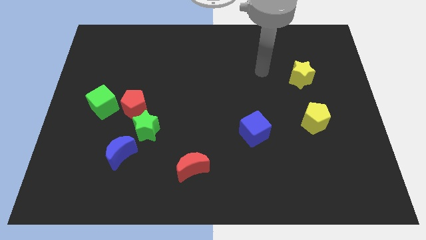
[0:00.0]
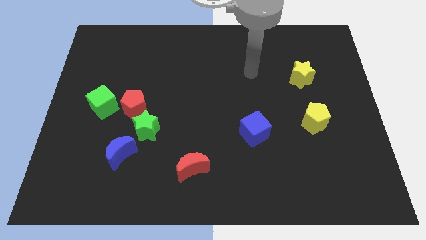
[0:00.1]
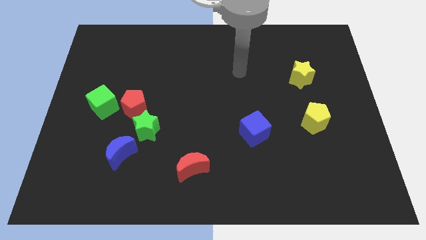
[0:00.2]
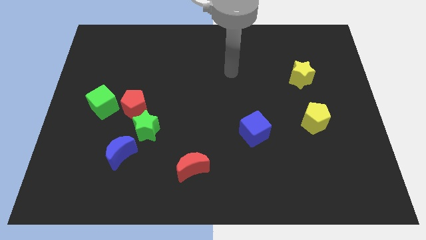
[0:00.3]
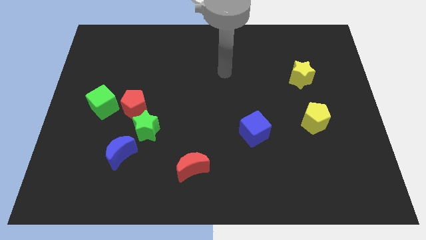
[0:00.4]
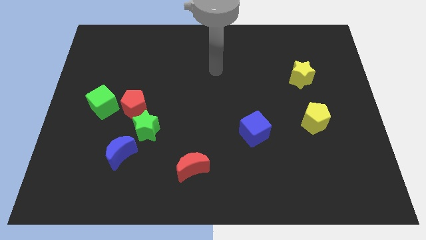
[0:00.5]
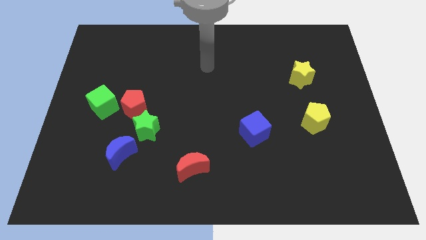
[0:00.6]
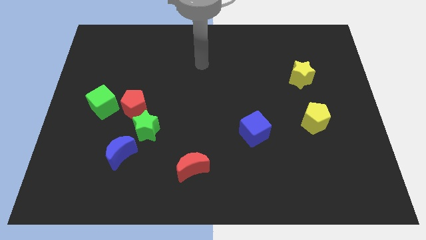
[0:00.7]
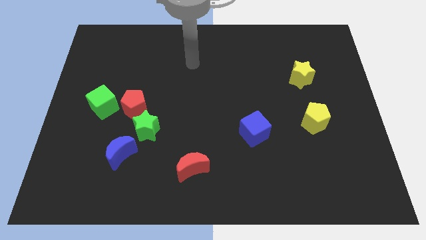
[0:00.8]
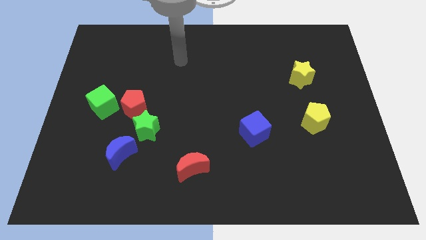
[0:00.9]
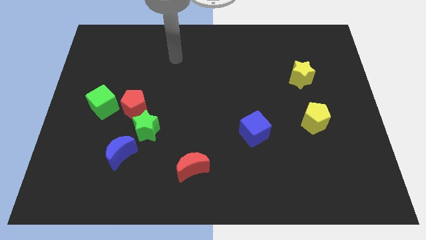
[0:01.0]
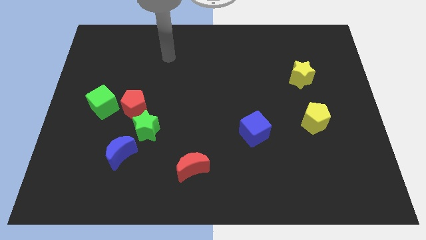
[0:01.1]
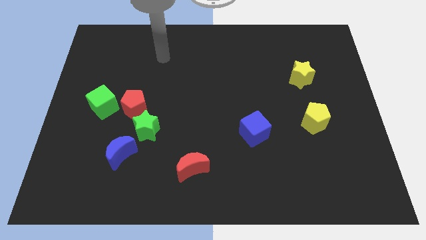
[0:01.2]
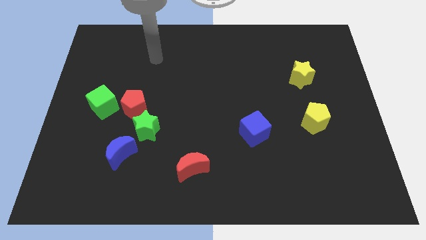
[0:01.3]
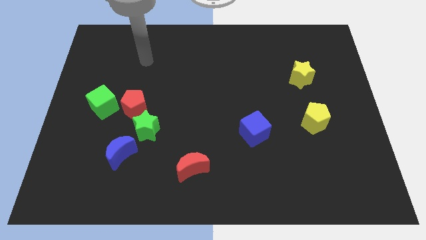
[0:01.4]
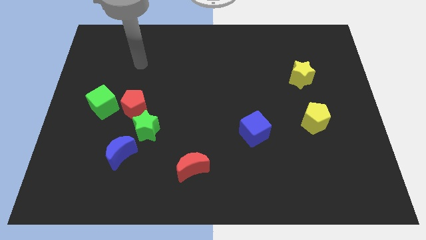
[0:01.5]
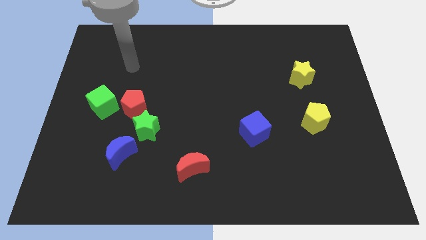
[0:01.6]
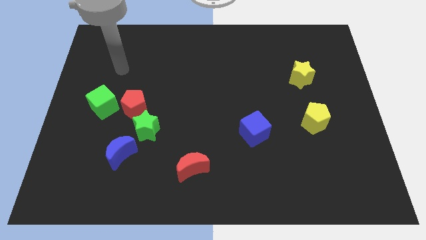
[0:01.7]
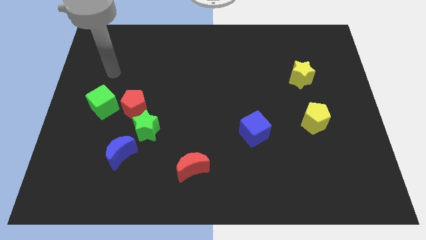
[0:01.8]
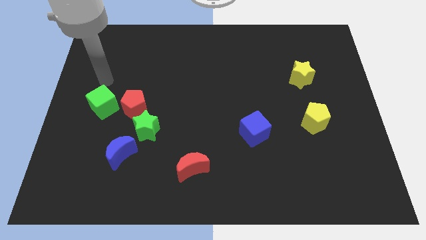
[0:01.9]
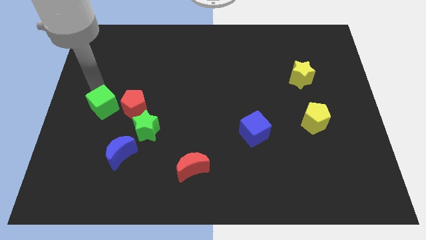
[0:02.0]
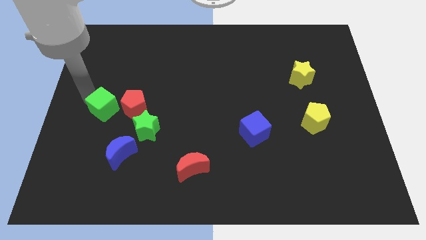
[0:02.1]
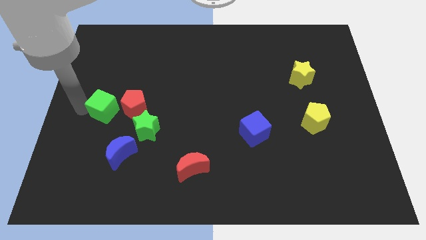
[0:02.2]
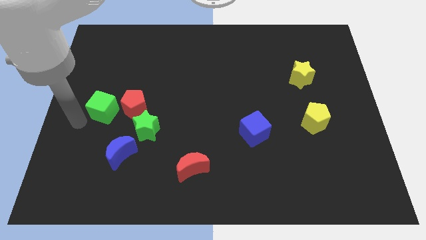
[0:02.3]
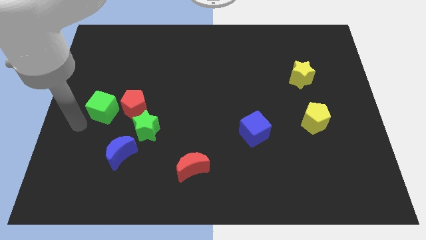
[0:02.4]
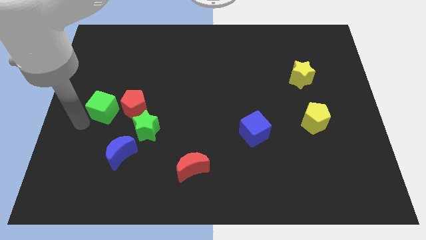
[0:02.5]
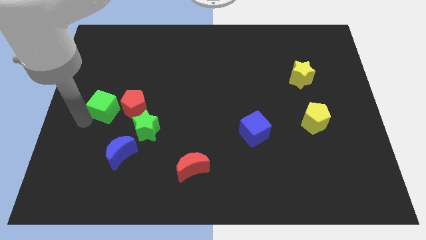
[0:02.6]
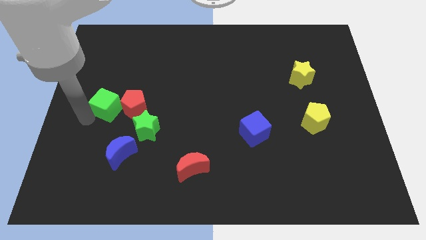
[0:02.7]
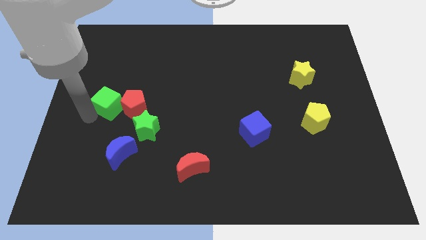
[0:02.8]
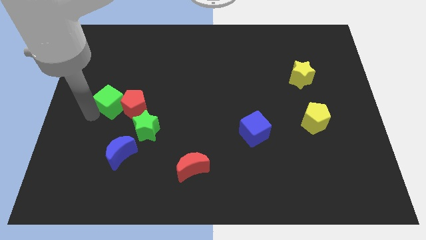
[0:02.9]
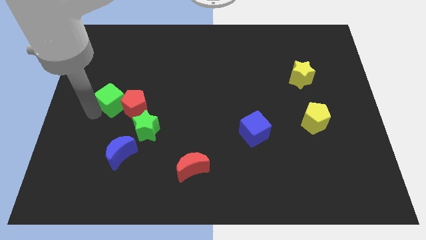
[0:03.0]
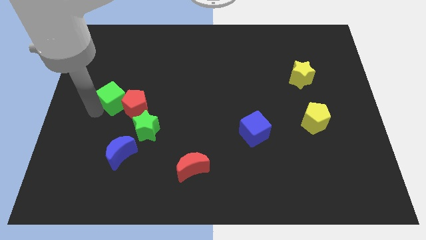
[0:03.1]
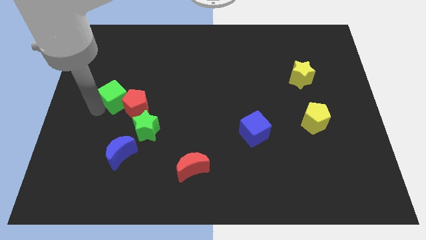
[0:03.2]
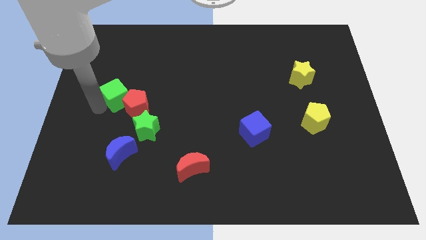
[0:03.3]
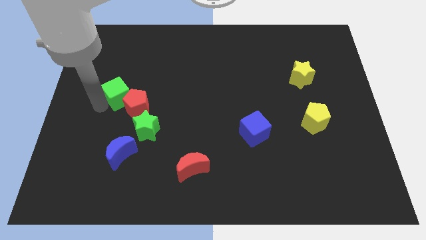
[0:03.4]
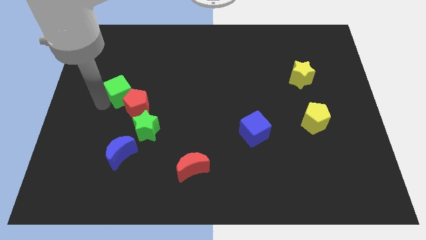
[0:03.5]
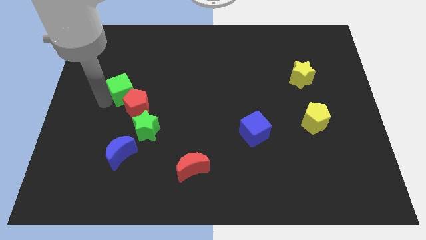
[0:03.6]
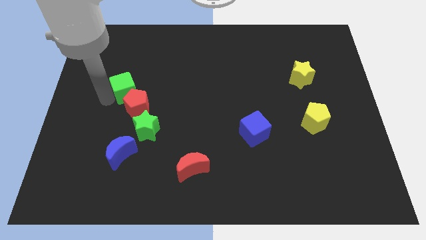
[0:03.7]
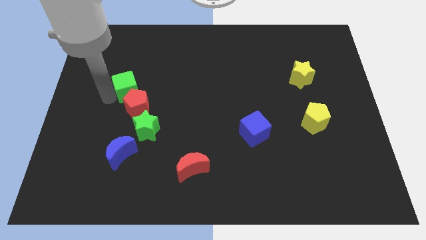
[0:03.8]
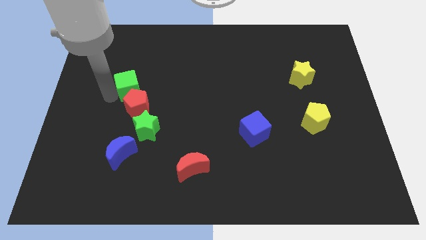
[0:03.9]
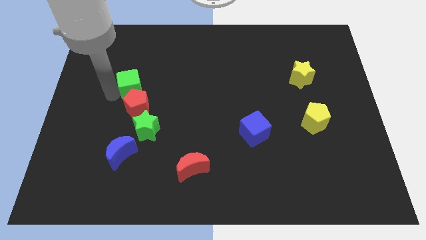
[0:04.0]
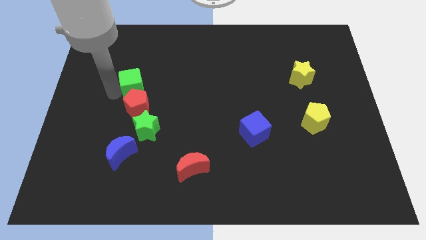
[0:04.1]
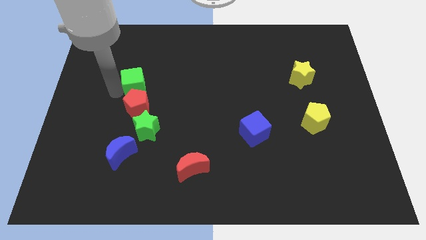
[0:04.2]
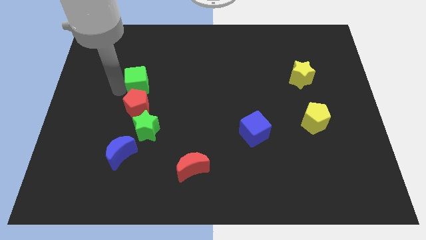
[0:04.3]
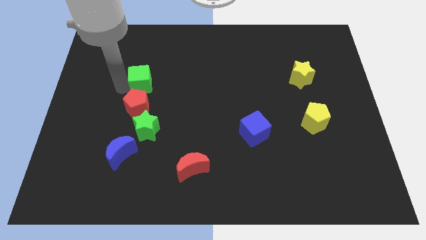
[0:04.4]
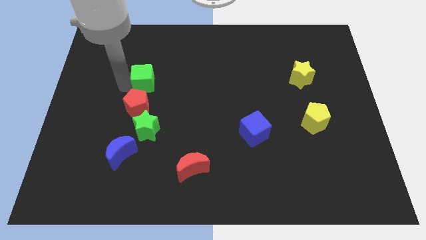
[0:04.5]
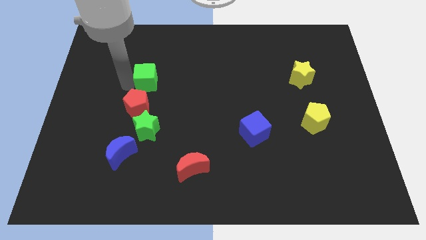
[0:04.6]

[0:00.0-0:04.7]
move the green cube a little bit to the right

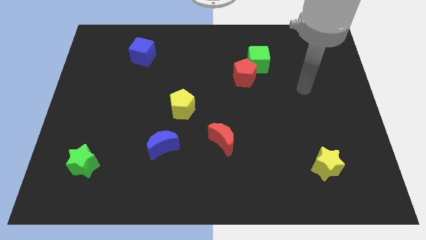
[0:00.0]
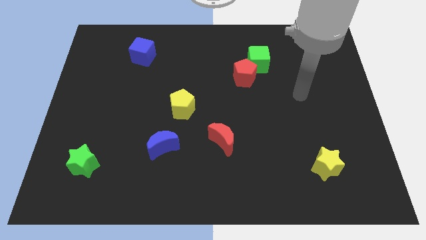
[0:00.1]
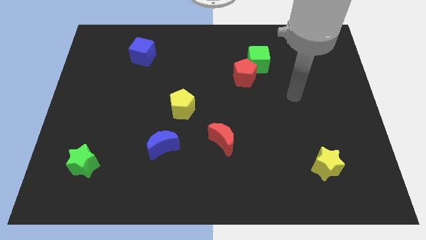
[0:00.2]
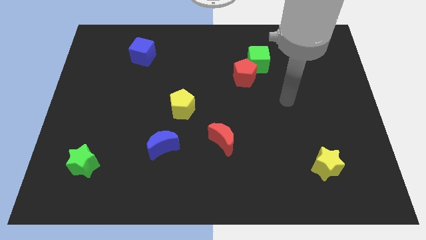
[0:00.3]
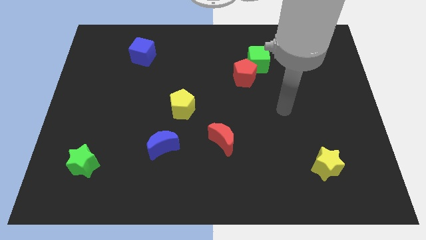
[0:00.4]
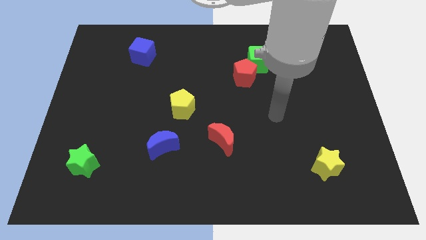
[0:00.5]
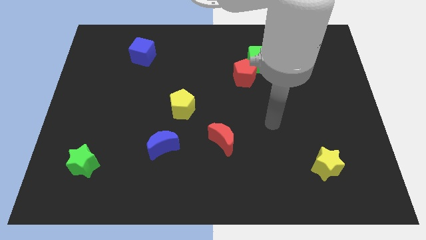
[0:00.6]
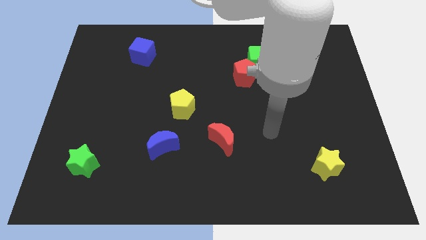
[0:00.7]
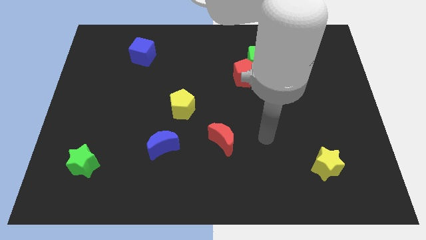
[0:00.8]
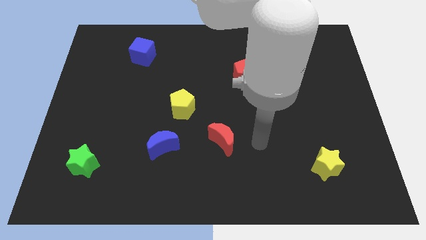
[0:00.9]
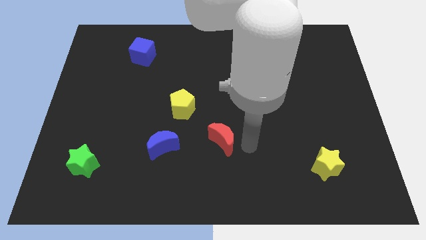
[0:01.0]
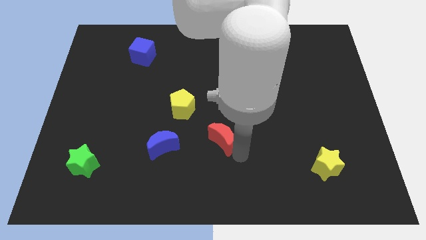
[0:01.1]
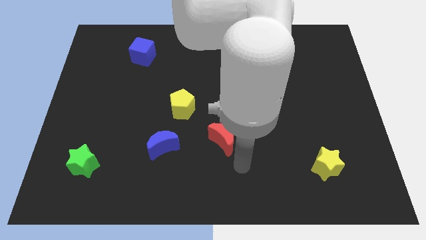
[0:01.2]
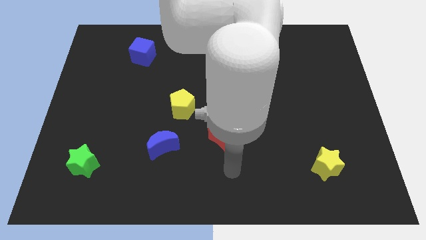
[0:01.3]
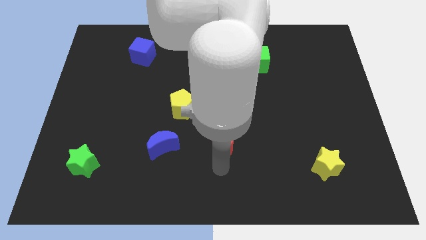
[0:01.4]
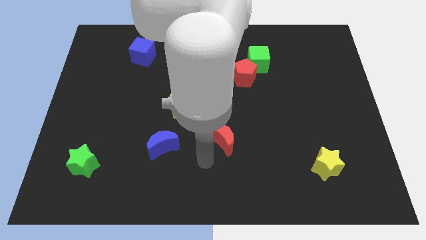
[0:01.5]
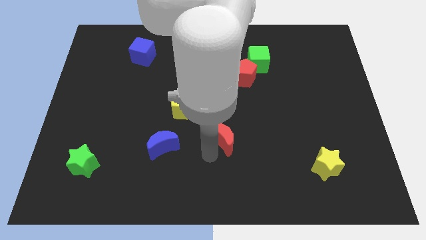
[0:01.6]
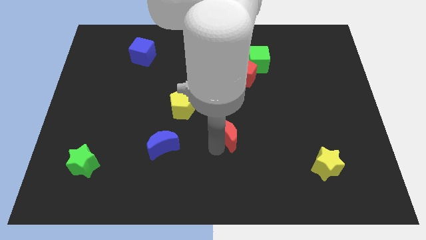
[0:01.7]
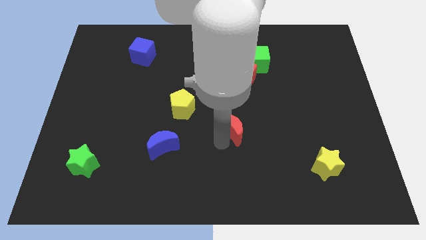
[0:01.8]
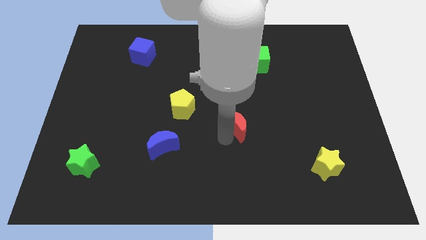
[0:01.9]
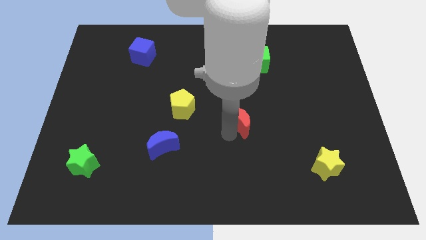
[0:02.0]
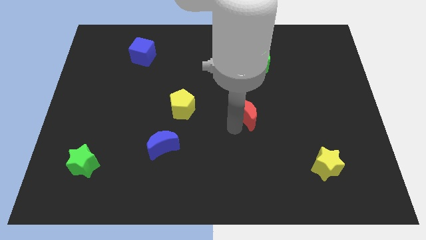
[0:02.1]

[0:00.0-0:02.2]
slide the red moon a little bit upwards and to the right diagonally

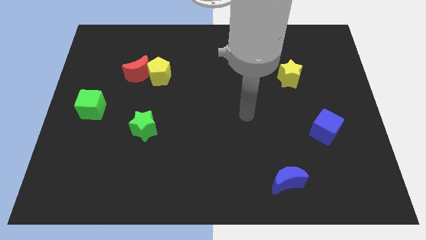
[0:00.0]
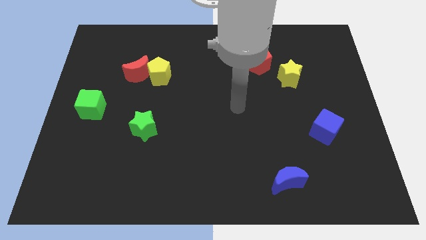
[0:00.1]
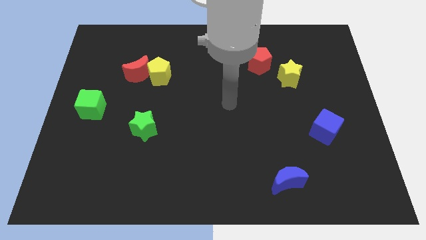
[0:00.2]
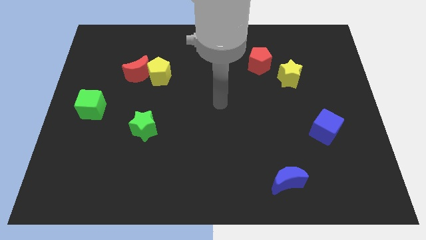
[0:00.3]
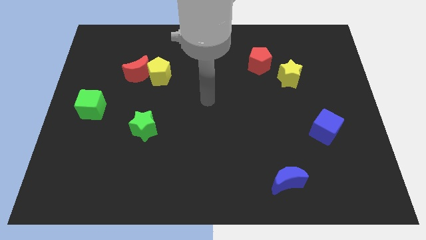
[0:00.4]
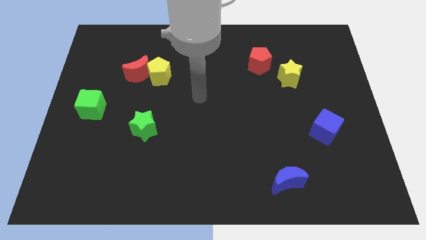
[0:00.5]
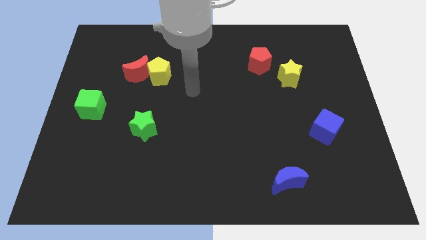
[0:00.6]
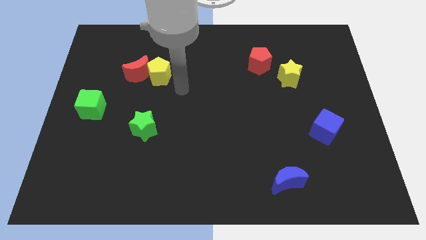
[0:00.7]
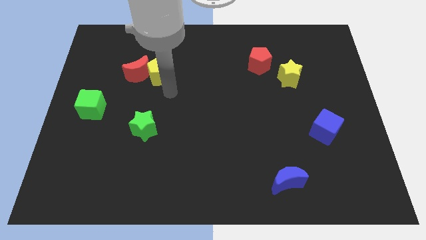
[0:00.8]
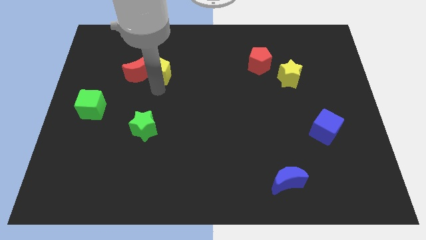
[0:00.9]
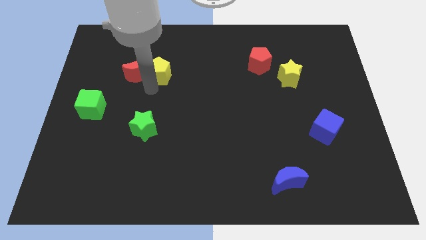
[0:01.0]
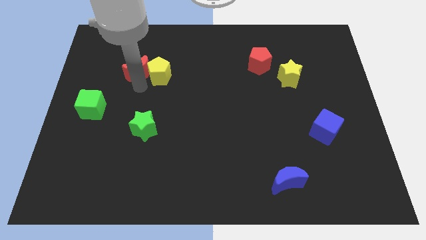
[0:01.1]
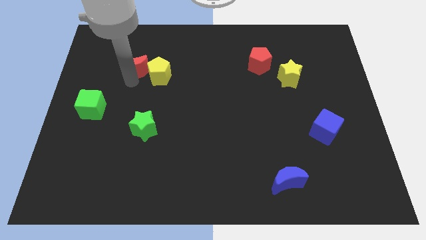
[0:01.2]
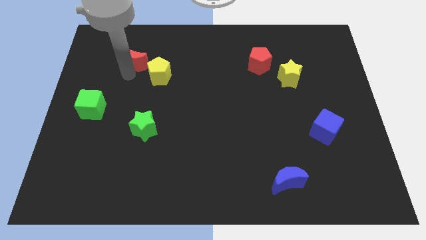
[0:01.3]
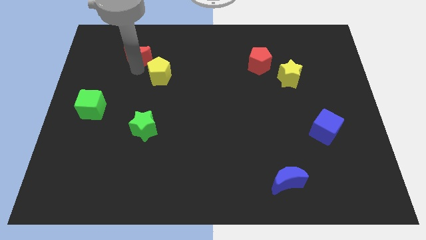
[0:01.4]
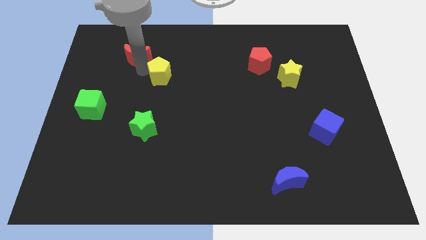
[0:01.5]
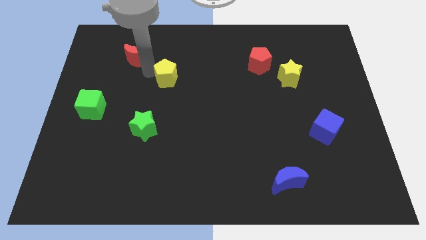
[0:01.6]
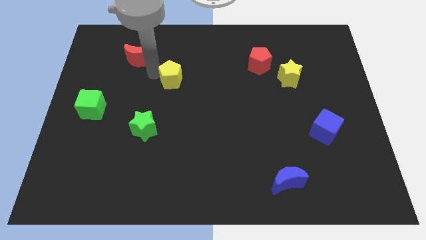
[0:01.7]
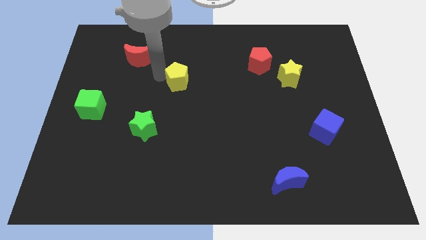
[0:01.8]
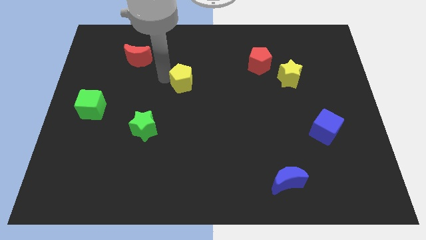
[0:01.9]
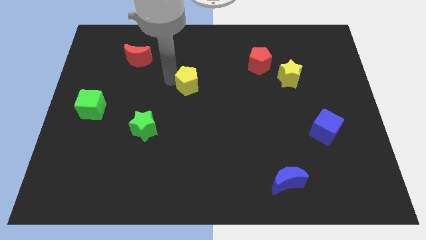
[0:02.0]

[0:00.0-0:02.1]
slightly slide the yellow pentagon to the right
